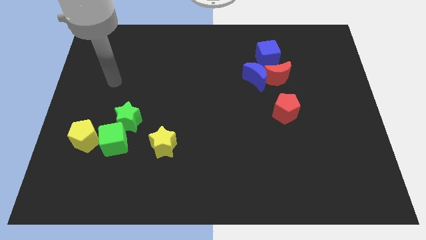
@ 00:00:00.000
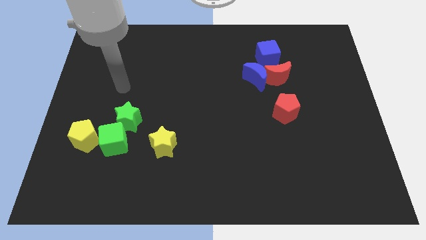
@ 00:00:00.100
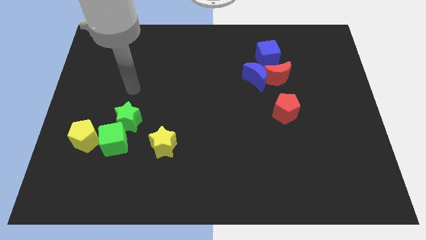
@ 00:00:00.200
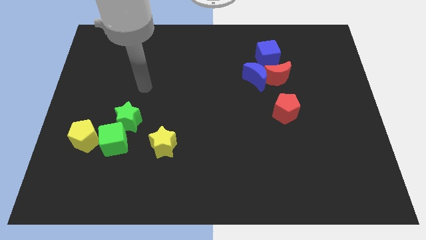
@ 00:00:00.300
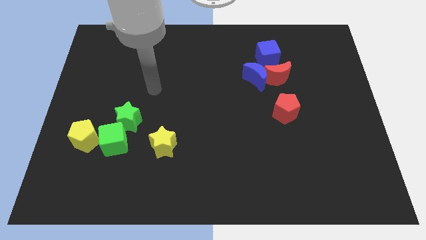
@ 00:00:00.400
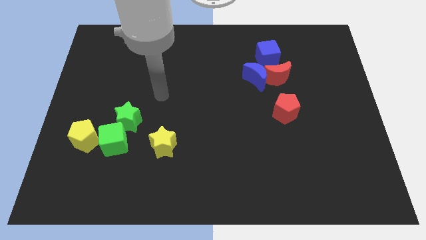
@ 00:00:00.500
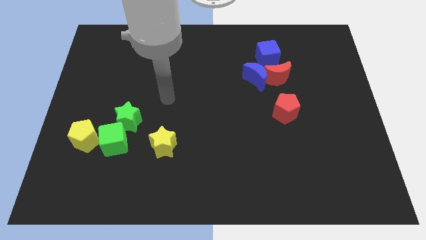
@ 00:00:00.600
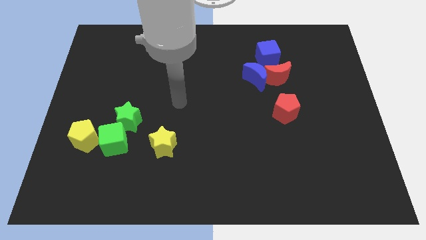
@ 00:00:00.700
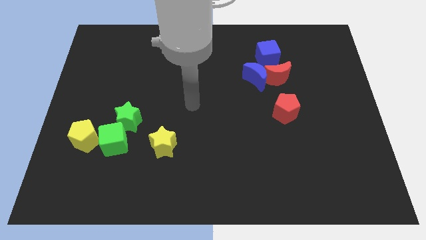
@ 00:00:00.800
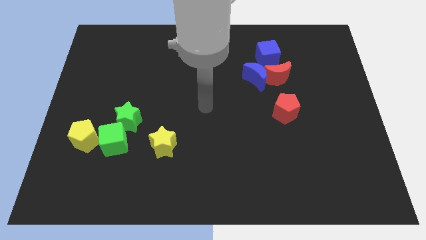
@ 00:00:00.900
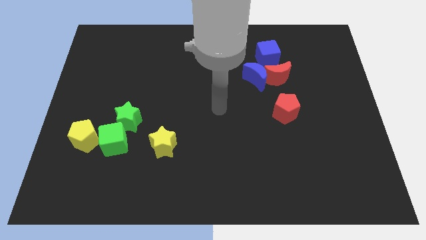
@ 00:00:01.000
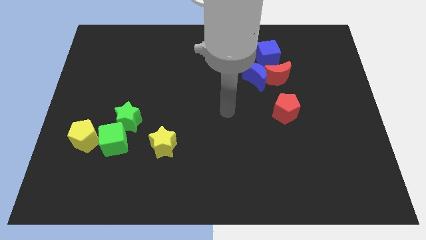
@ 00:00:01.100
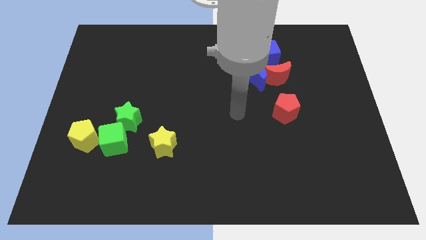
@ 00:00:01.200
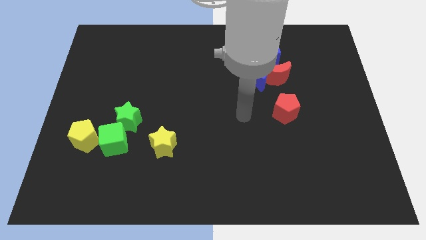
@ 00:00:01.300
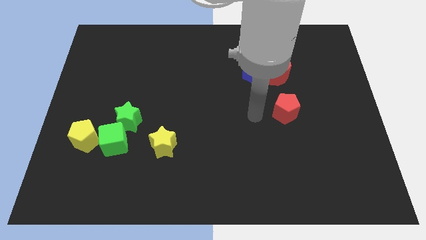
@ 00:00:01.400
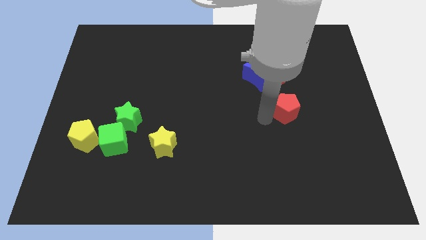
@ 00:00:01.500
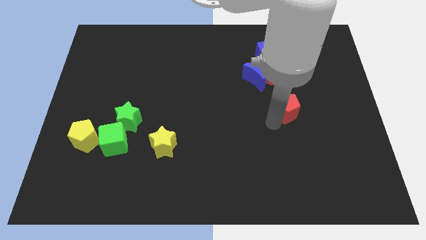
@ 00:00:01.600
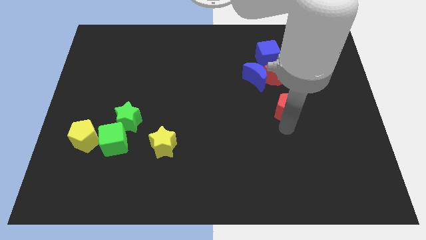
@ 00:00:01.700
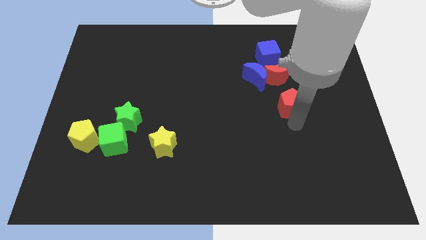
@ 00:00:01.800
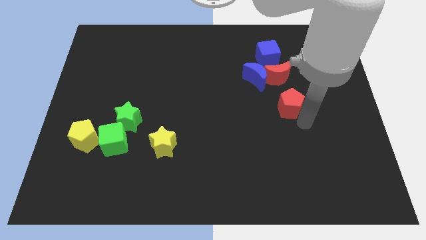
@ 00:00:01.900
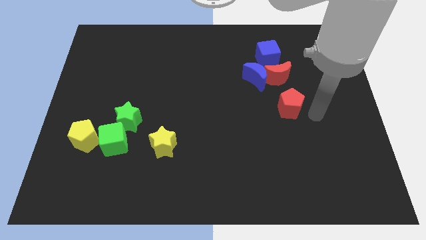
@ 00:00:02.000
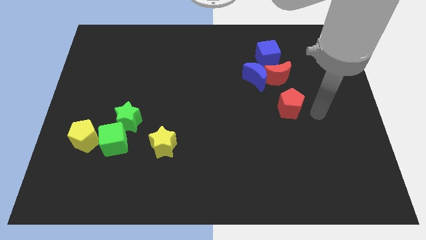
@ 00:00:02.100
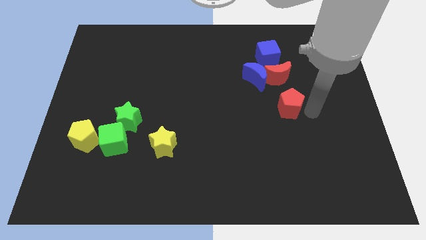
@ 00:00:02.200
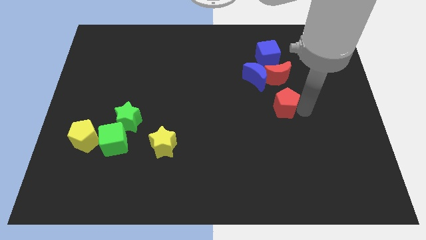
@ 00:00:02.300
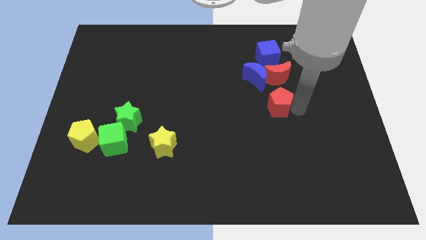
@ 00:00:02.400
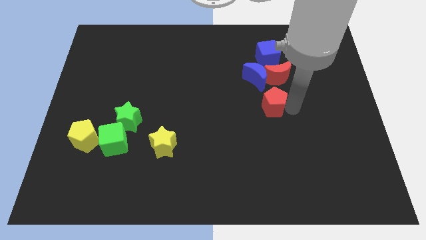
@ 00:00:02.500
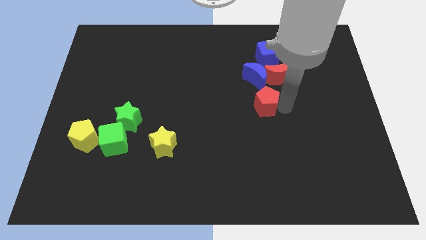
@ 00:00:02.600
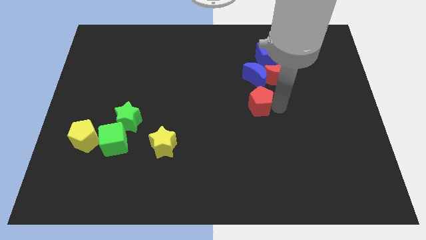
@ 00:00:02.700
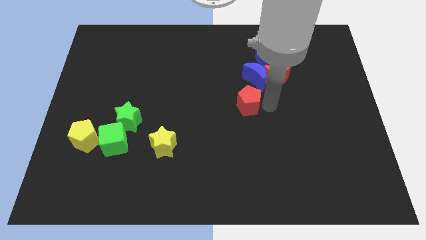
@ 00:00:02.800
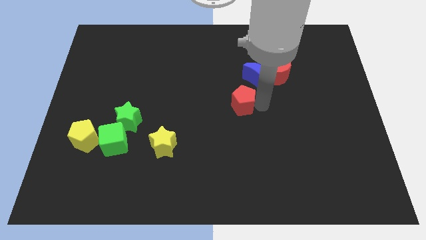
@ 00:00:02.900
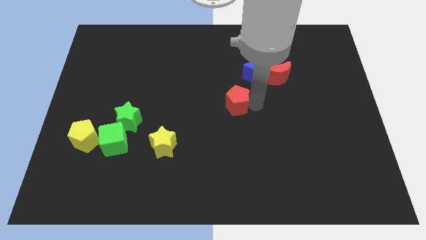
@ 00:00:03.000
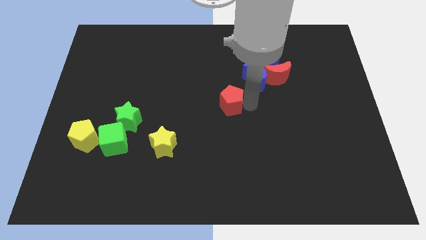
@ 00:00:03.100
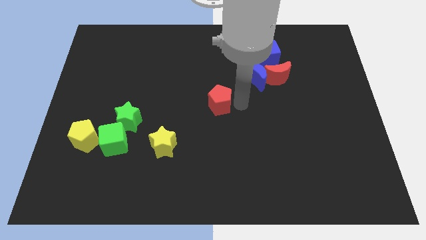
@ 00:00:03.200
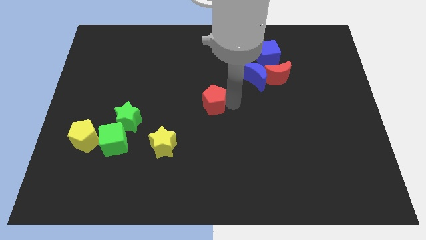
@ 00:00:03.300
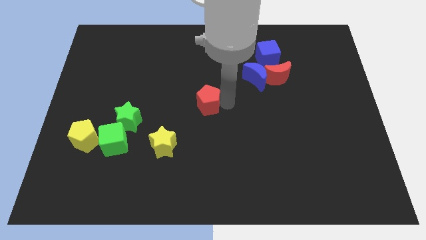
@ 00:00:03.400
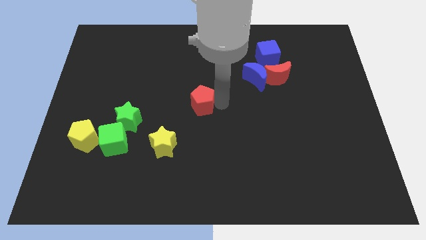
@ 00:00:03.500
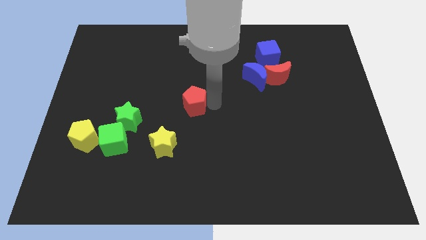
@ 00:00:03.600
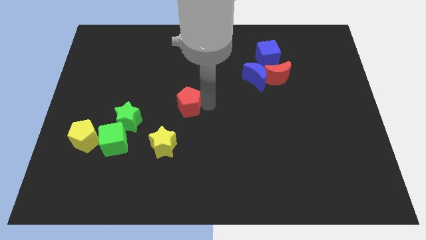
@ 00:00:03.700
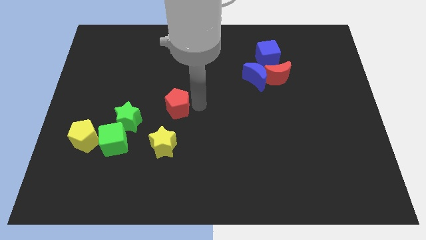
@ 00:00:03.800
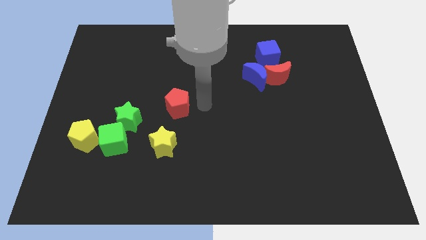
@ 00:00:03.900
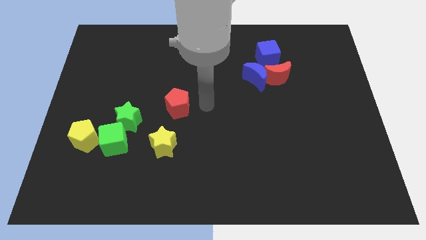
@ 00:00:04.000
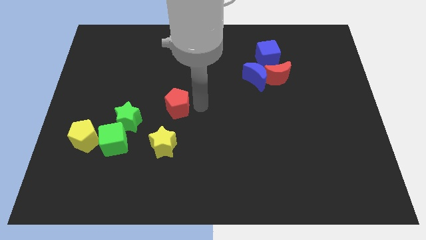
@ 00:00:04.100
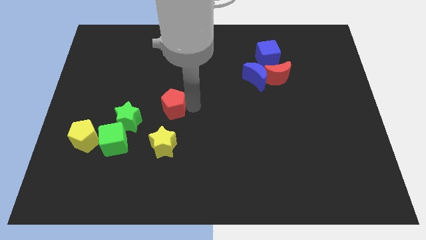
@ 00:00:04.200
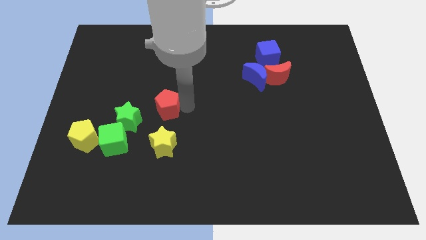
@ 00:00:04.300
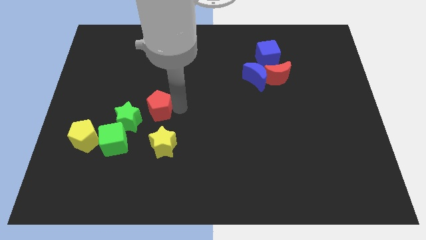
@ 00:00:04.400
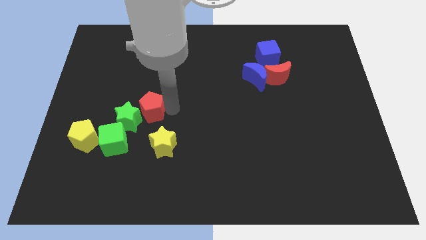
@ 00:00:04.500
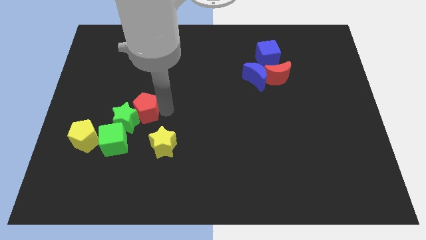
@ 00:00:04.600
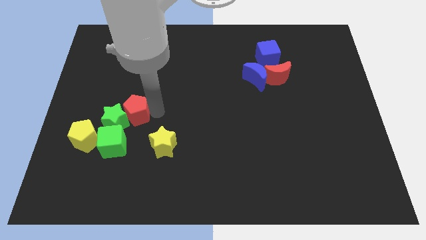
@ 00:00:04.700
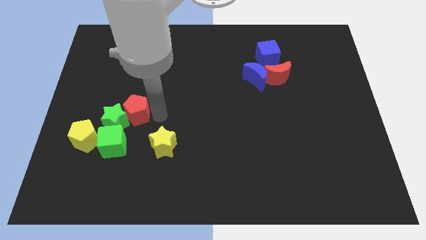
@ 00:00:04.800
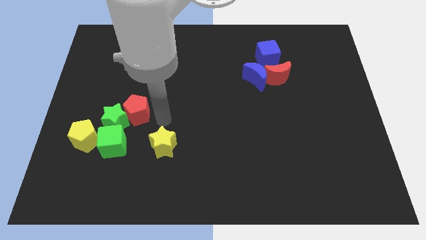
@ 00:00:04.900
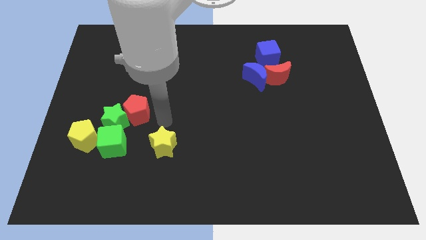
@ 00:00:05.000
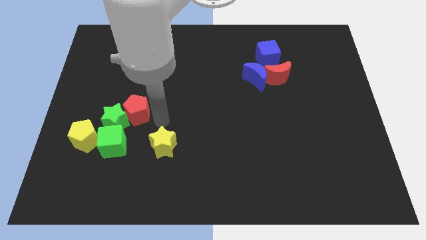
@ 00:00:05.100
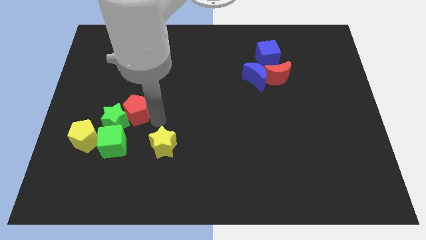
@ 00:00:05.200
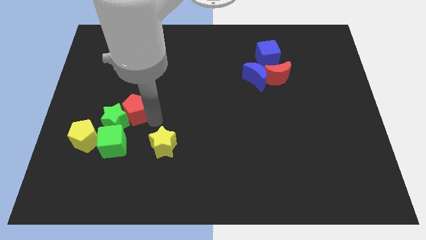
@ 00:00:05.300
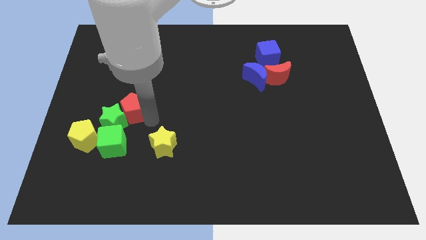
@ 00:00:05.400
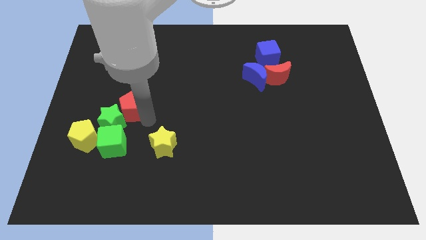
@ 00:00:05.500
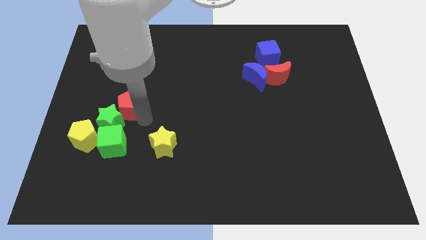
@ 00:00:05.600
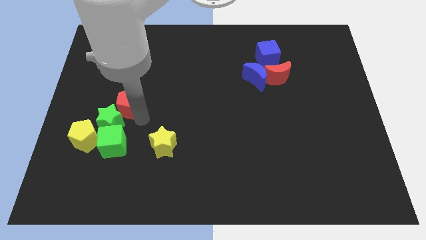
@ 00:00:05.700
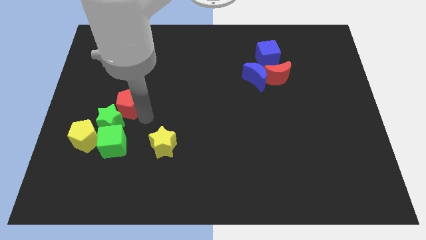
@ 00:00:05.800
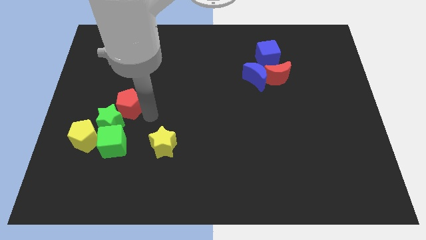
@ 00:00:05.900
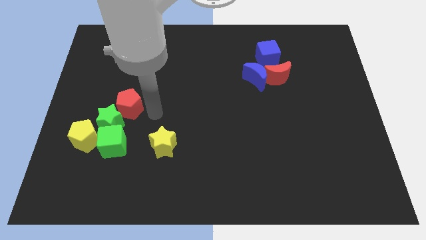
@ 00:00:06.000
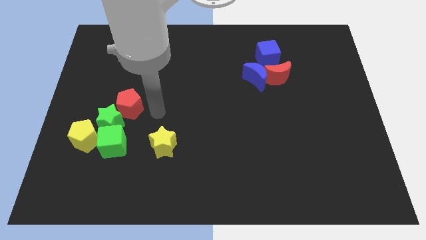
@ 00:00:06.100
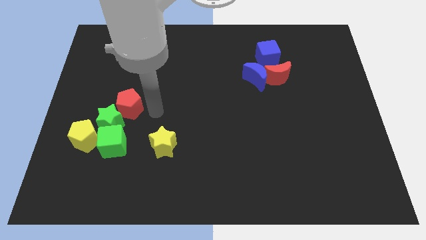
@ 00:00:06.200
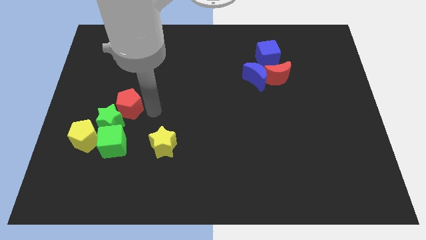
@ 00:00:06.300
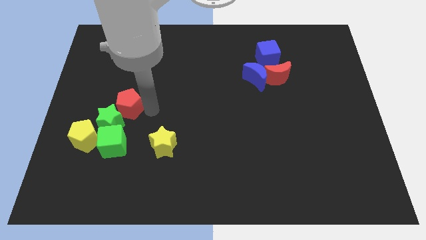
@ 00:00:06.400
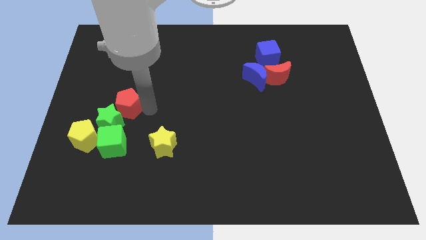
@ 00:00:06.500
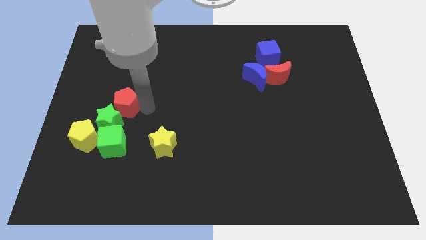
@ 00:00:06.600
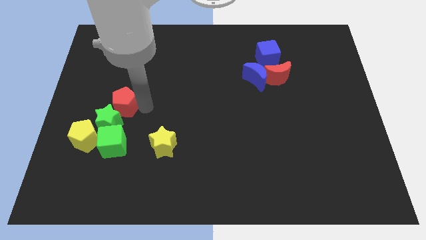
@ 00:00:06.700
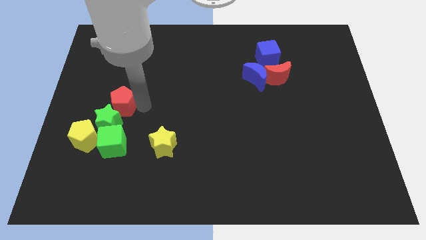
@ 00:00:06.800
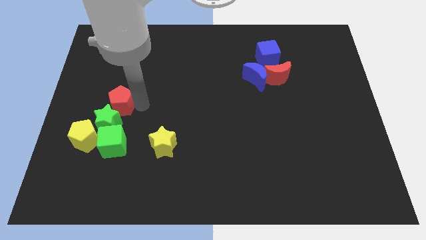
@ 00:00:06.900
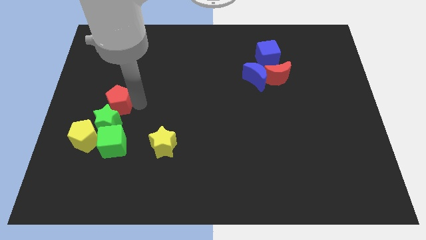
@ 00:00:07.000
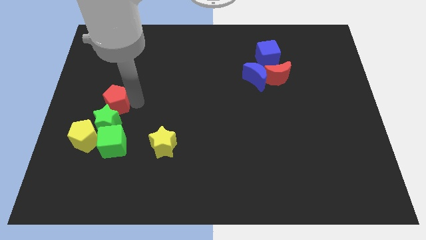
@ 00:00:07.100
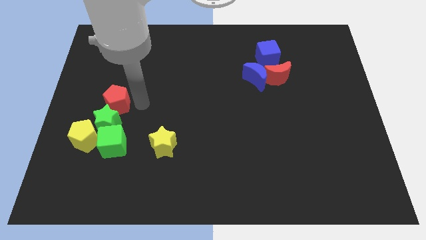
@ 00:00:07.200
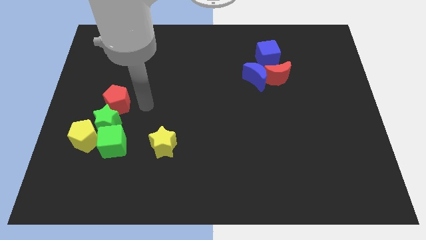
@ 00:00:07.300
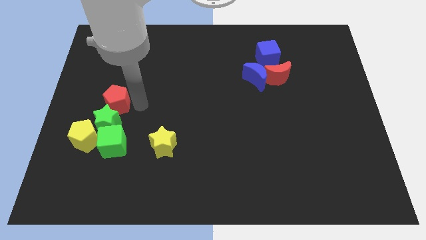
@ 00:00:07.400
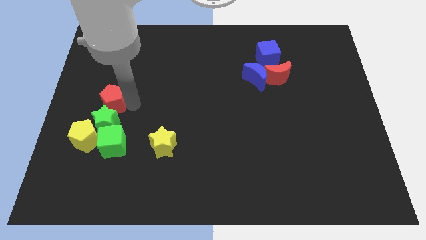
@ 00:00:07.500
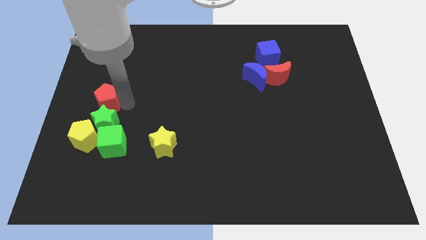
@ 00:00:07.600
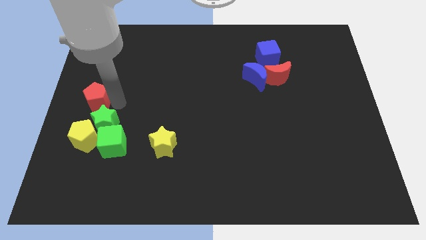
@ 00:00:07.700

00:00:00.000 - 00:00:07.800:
slide the red pentagon to the left side of the board
